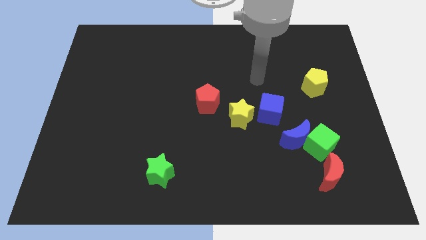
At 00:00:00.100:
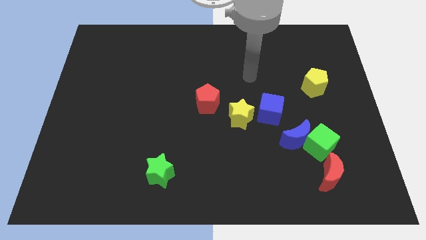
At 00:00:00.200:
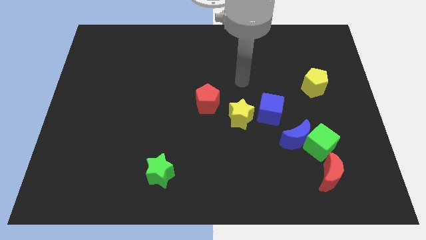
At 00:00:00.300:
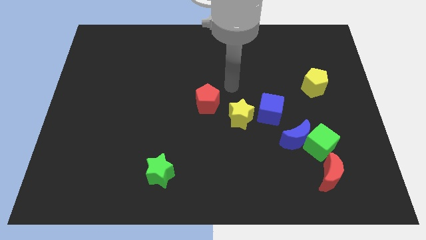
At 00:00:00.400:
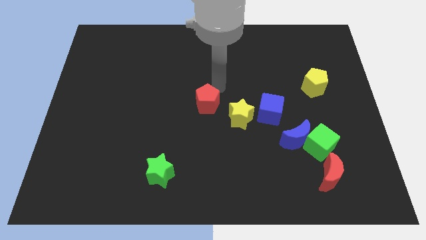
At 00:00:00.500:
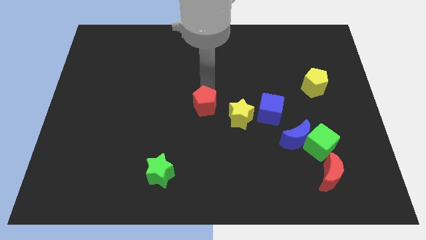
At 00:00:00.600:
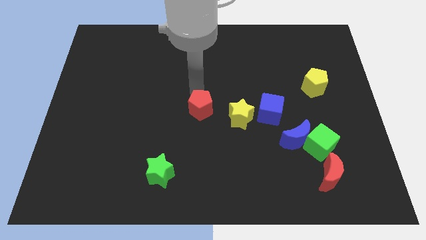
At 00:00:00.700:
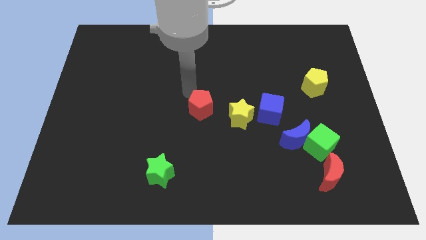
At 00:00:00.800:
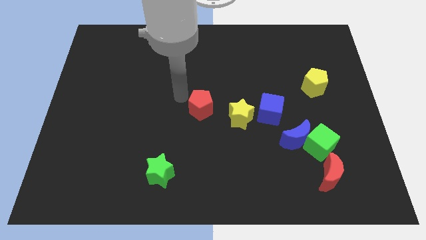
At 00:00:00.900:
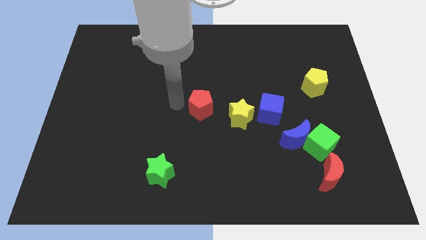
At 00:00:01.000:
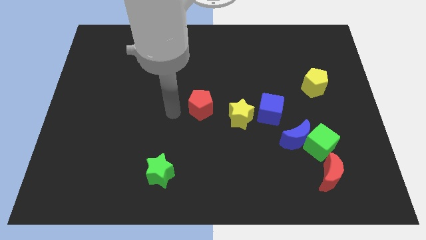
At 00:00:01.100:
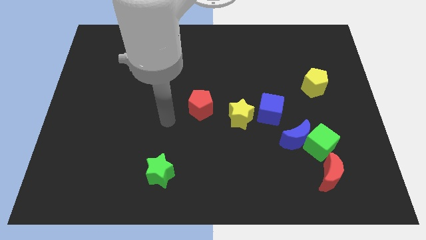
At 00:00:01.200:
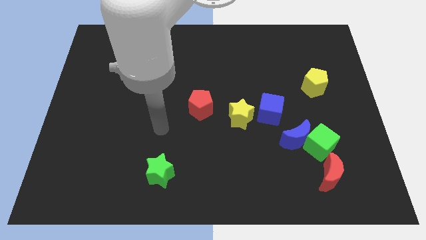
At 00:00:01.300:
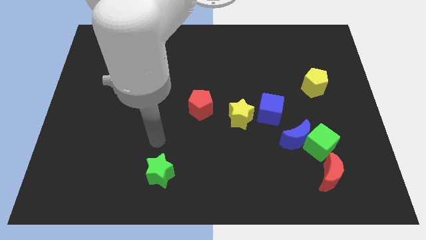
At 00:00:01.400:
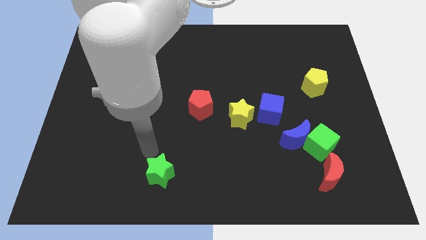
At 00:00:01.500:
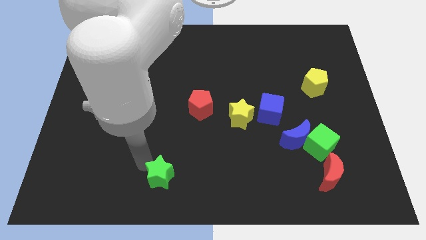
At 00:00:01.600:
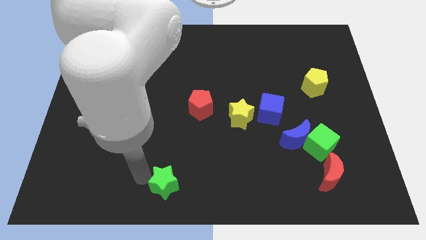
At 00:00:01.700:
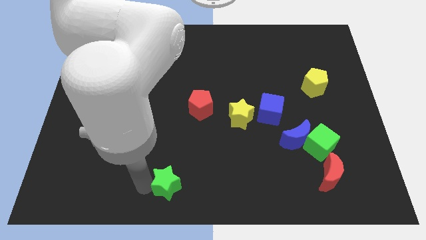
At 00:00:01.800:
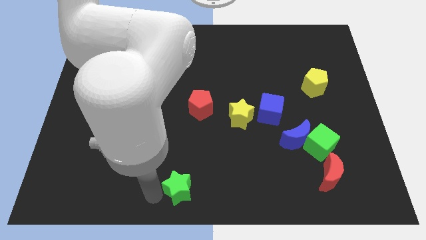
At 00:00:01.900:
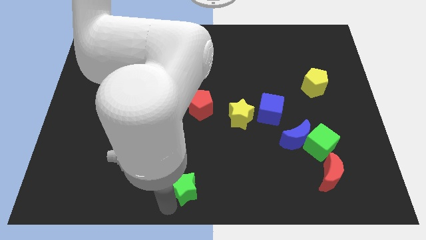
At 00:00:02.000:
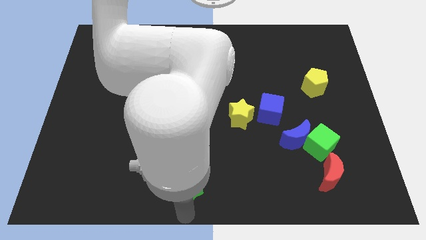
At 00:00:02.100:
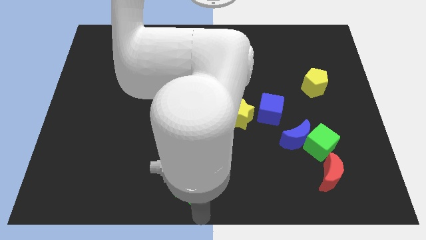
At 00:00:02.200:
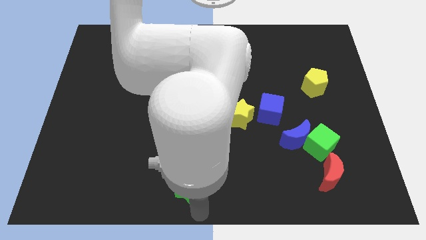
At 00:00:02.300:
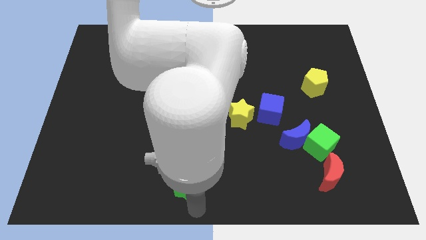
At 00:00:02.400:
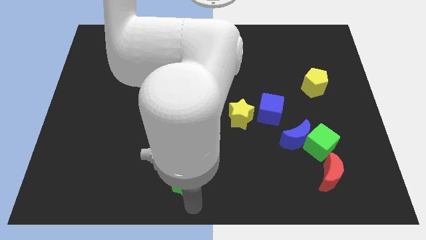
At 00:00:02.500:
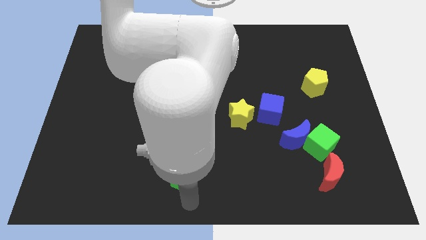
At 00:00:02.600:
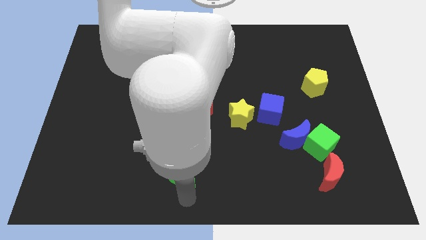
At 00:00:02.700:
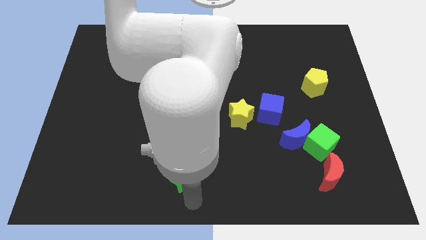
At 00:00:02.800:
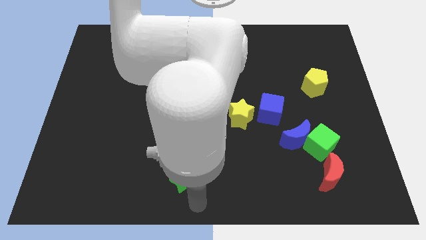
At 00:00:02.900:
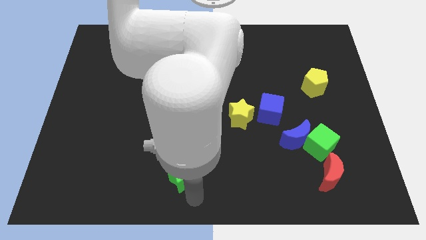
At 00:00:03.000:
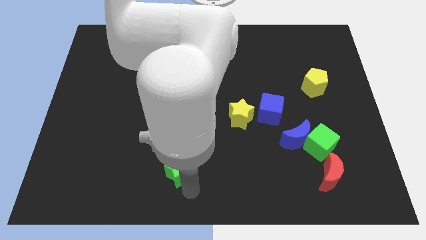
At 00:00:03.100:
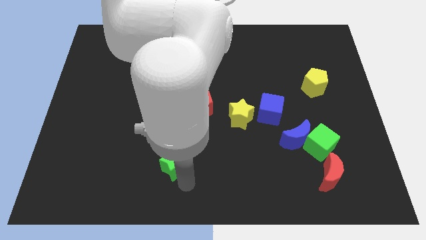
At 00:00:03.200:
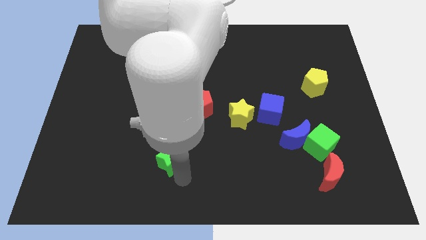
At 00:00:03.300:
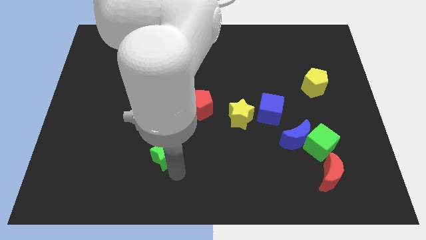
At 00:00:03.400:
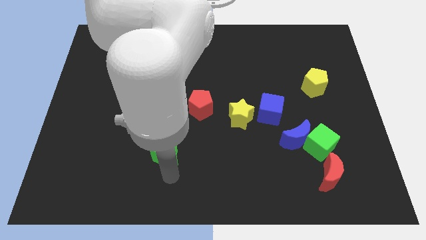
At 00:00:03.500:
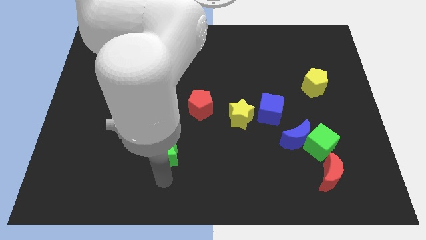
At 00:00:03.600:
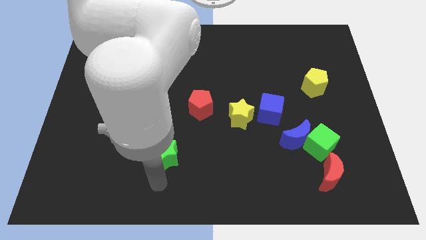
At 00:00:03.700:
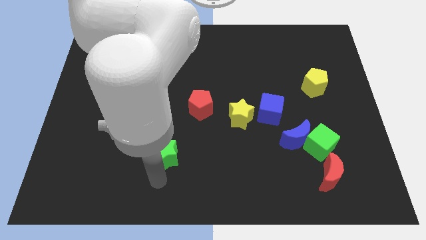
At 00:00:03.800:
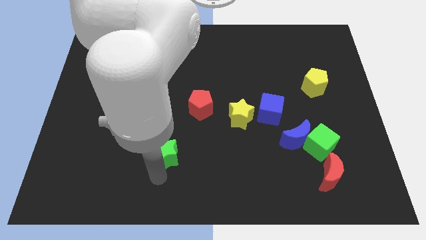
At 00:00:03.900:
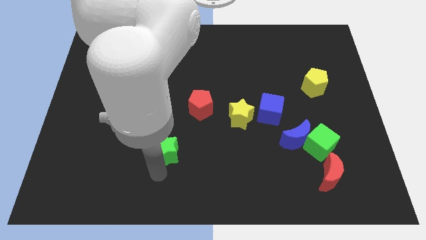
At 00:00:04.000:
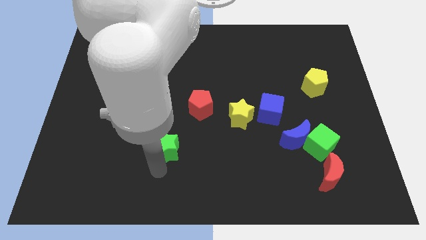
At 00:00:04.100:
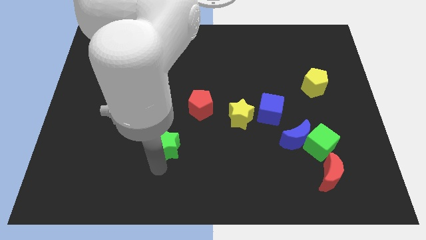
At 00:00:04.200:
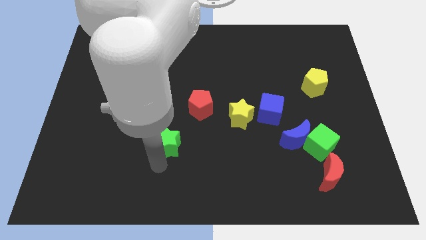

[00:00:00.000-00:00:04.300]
slightly push the green star up

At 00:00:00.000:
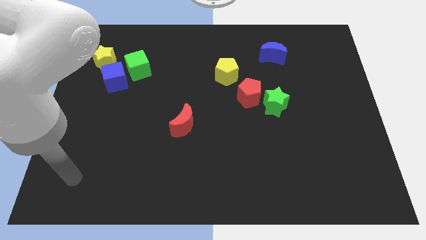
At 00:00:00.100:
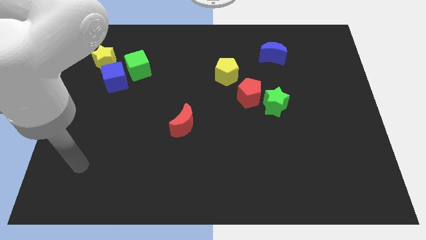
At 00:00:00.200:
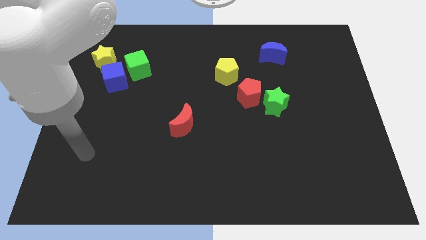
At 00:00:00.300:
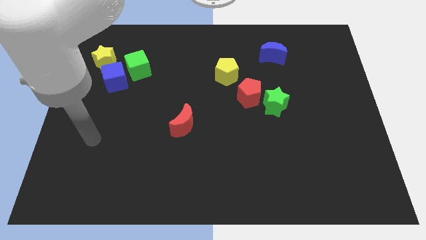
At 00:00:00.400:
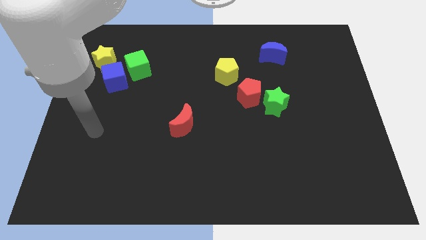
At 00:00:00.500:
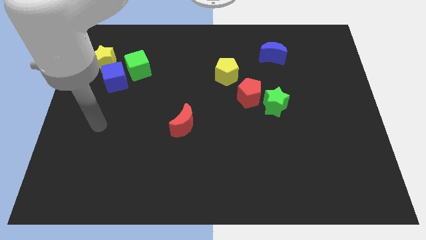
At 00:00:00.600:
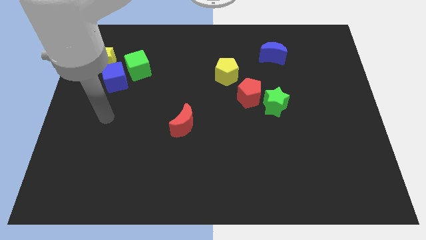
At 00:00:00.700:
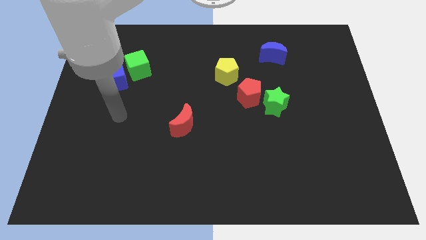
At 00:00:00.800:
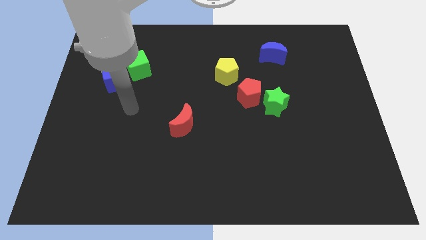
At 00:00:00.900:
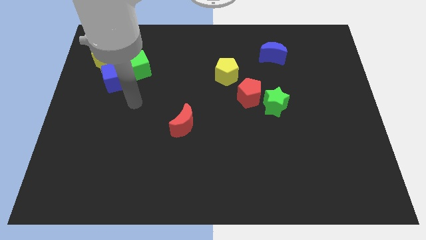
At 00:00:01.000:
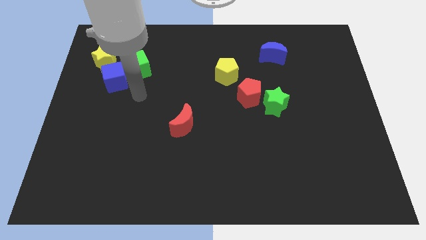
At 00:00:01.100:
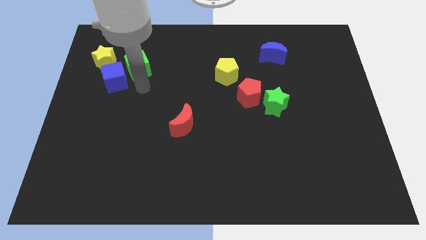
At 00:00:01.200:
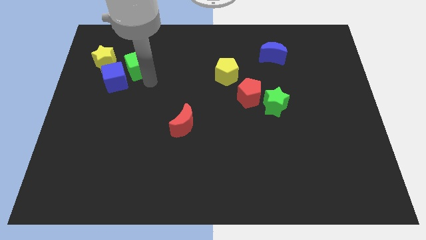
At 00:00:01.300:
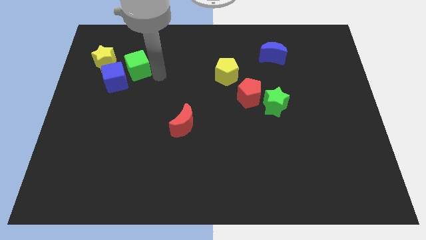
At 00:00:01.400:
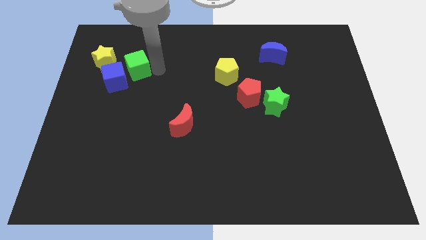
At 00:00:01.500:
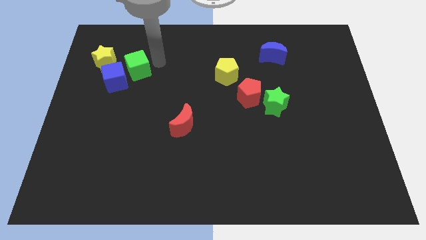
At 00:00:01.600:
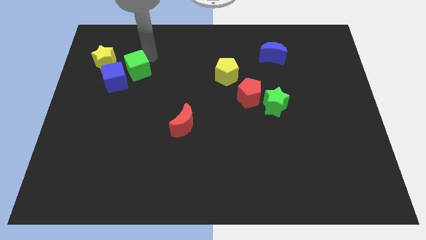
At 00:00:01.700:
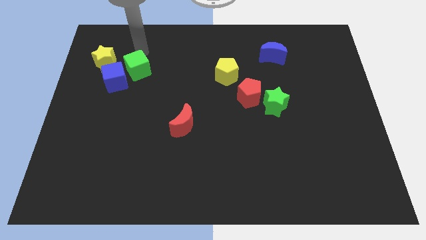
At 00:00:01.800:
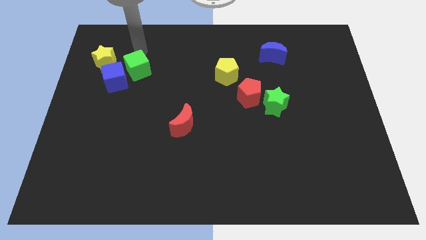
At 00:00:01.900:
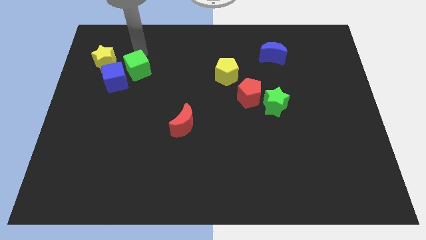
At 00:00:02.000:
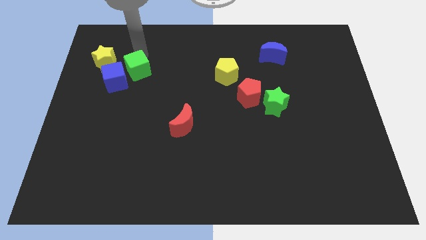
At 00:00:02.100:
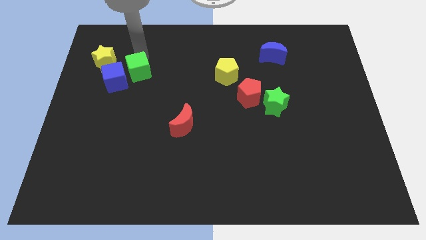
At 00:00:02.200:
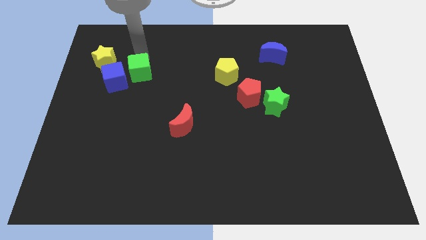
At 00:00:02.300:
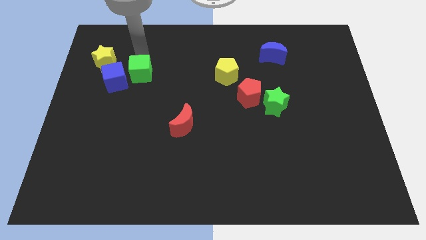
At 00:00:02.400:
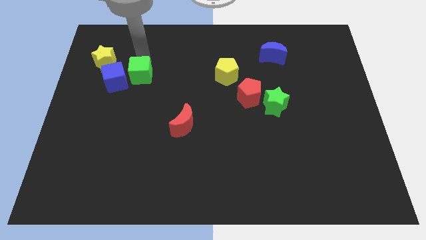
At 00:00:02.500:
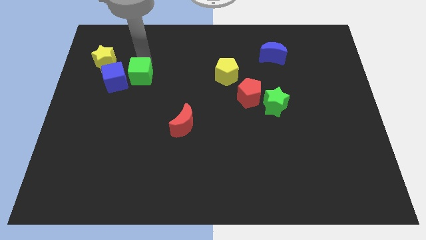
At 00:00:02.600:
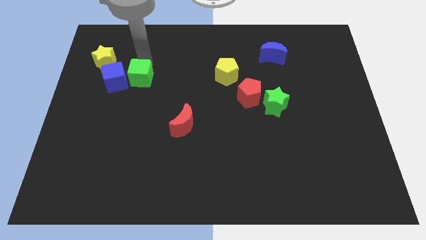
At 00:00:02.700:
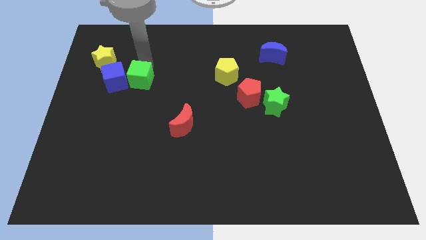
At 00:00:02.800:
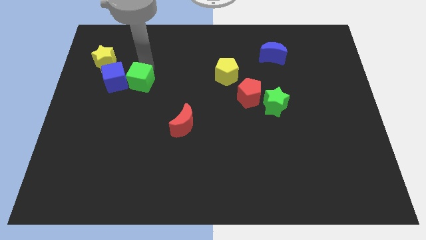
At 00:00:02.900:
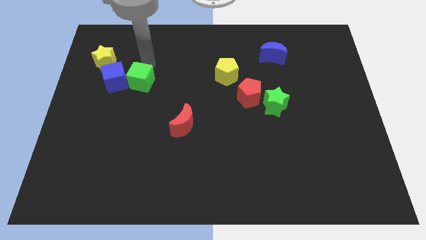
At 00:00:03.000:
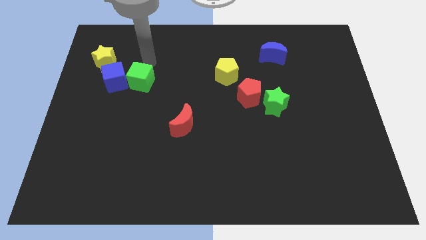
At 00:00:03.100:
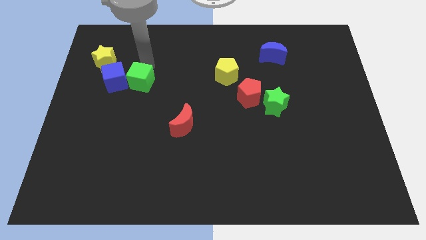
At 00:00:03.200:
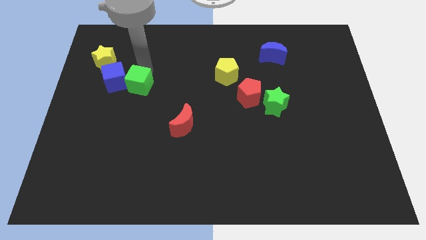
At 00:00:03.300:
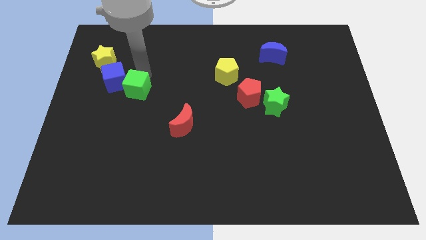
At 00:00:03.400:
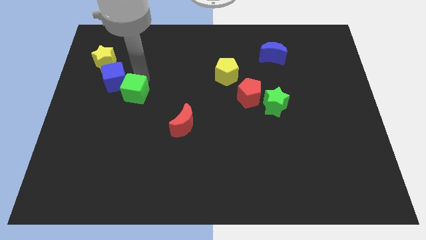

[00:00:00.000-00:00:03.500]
slightly move the green cube down
